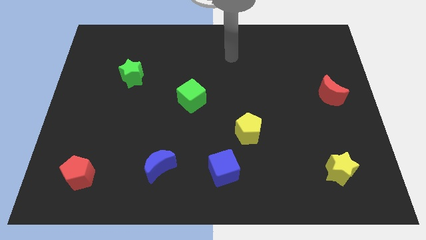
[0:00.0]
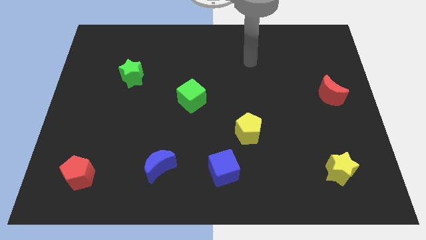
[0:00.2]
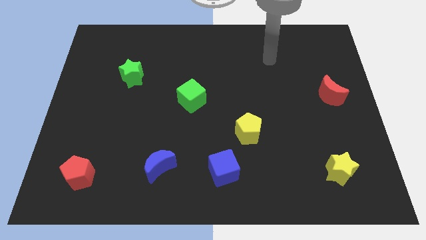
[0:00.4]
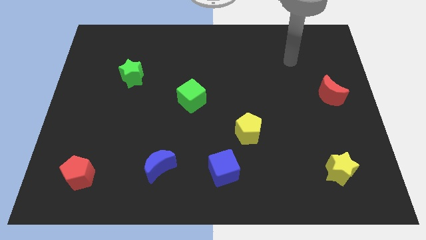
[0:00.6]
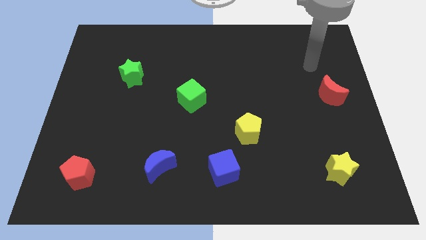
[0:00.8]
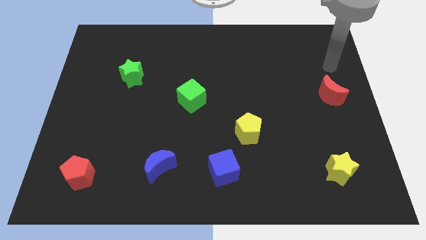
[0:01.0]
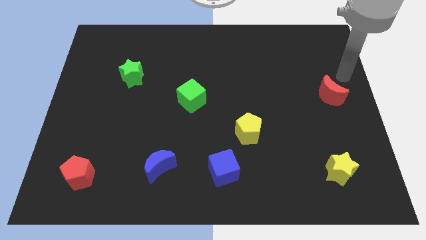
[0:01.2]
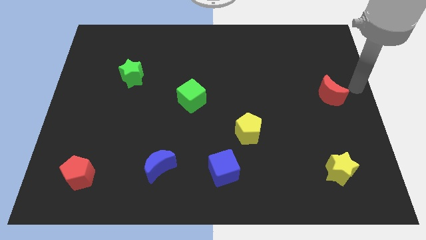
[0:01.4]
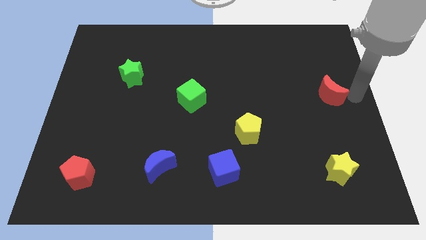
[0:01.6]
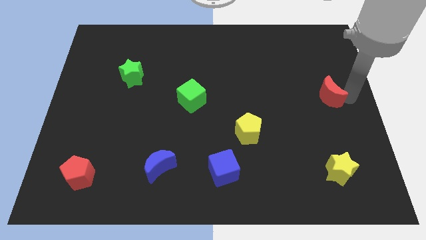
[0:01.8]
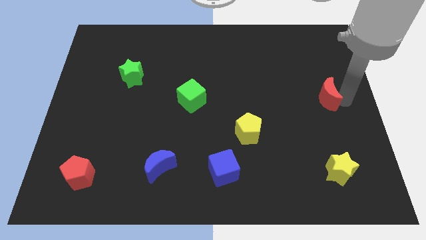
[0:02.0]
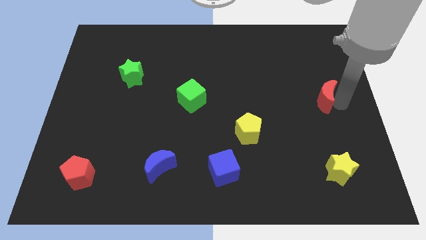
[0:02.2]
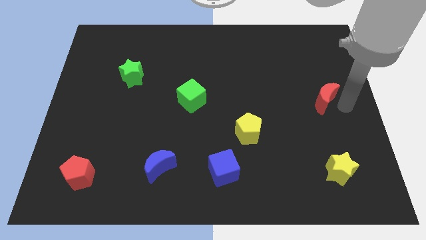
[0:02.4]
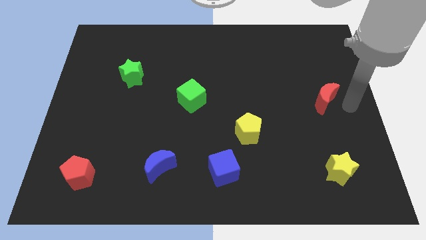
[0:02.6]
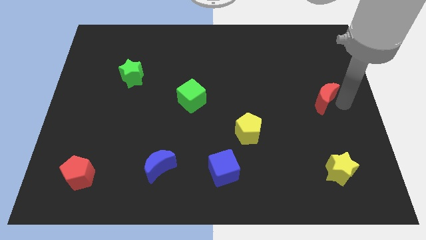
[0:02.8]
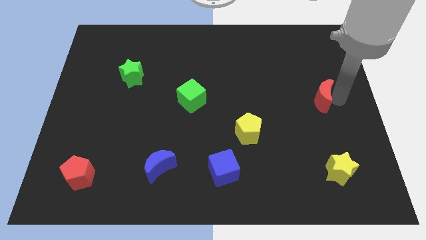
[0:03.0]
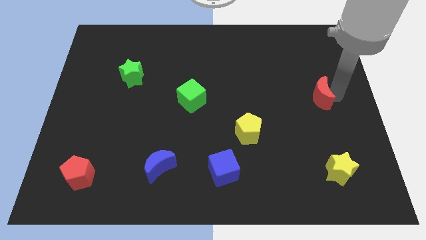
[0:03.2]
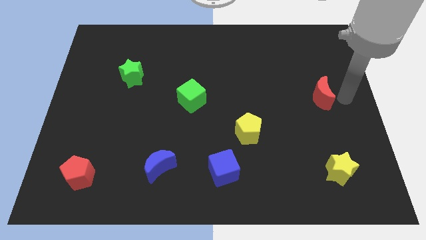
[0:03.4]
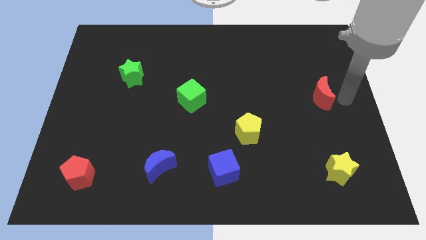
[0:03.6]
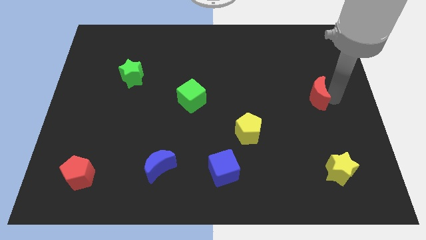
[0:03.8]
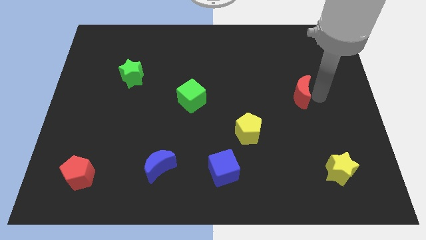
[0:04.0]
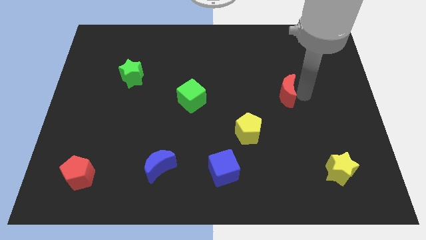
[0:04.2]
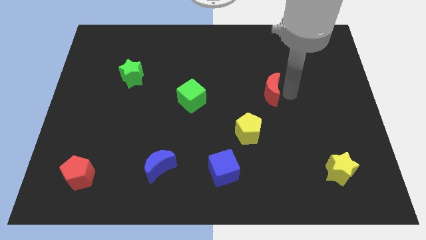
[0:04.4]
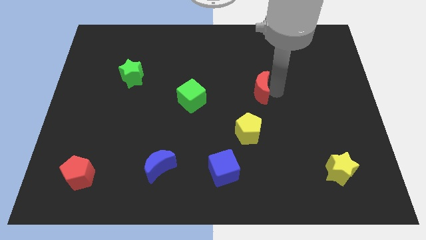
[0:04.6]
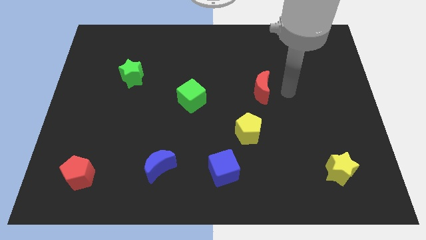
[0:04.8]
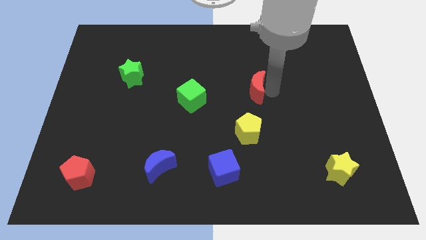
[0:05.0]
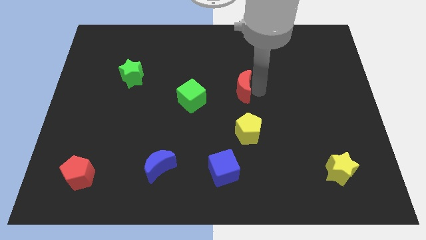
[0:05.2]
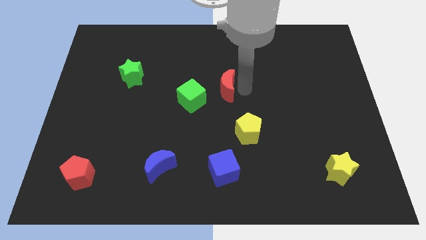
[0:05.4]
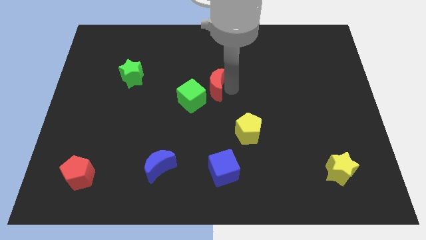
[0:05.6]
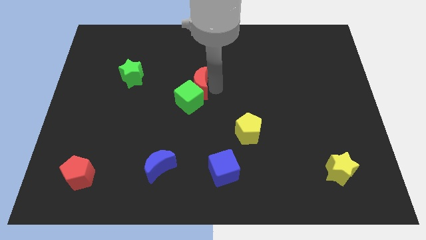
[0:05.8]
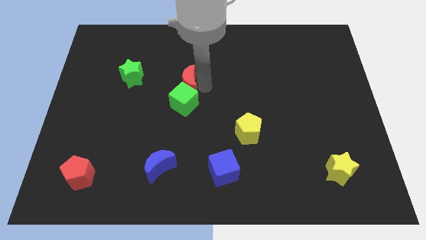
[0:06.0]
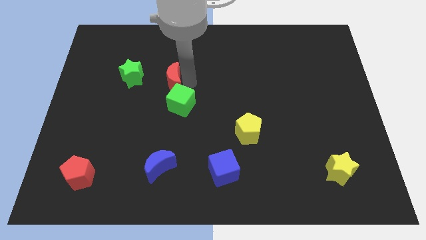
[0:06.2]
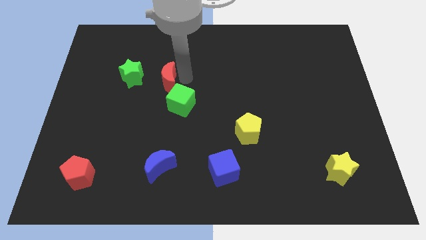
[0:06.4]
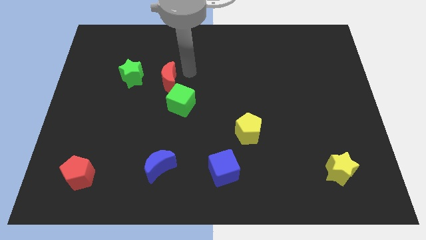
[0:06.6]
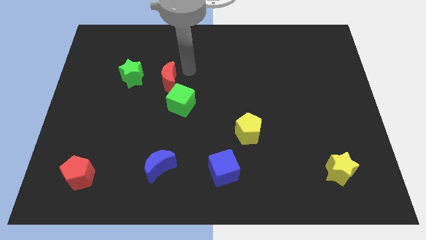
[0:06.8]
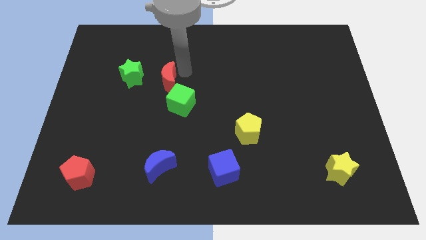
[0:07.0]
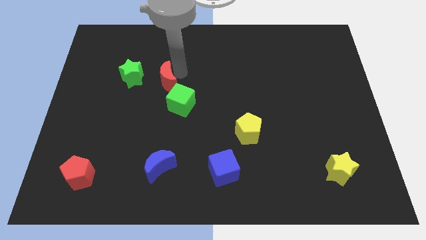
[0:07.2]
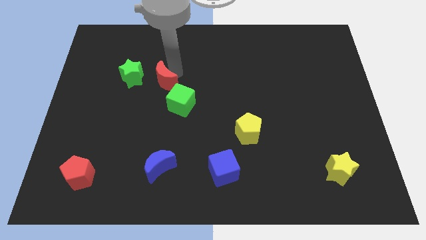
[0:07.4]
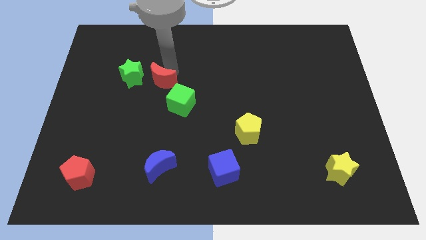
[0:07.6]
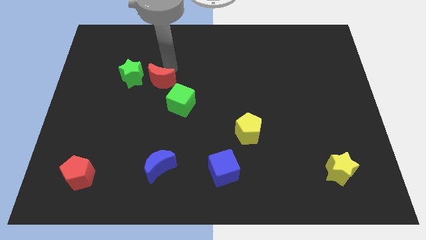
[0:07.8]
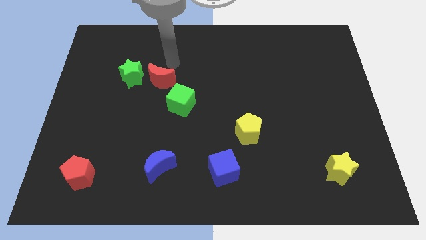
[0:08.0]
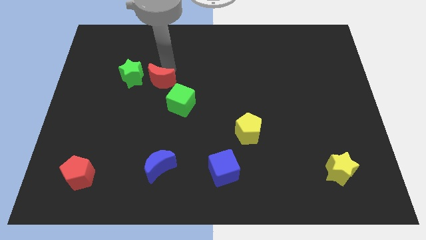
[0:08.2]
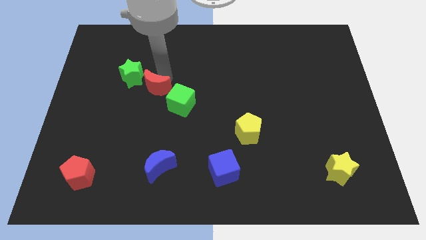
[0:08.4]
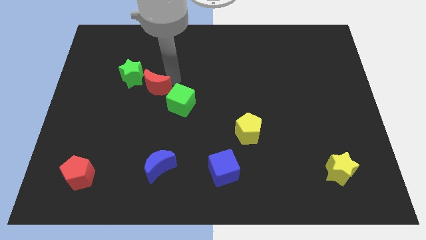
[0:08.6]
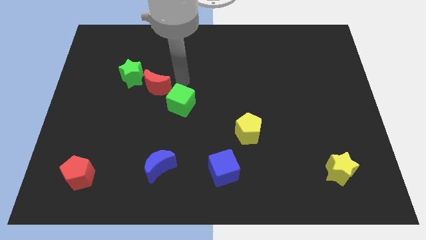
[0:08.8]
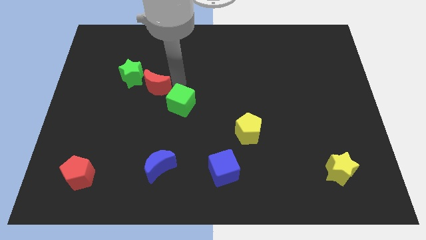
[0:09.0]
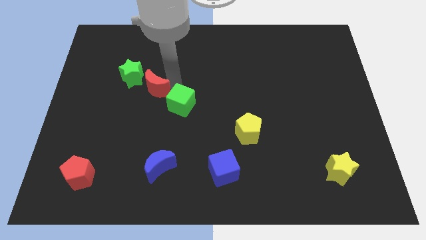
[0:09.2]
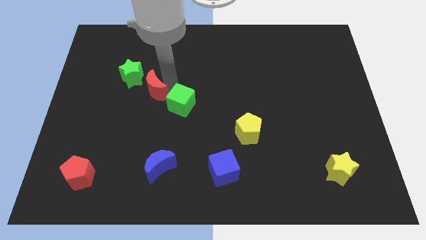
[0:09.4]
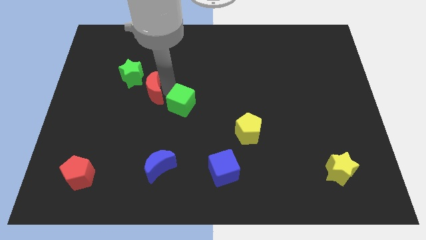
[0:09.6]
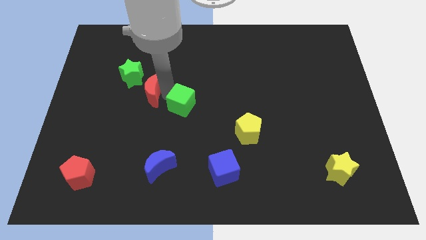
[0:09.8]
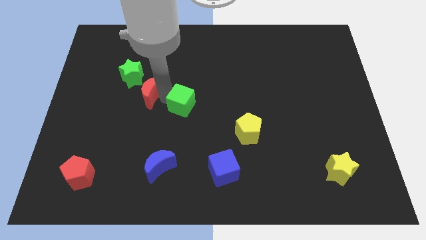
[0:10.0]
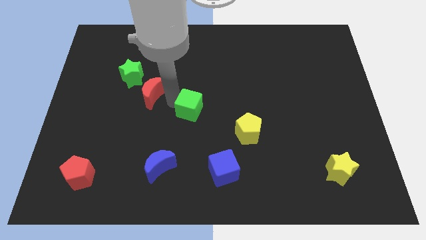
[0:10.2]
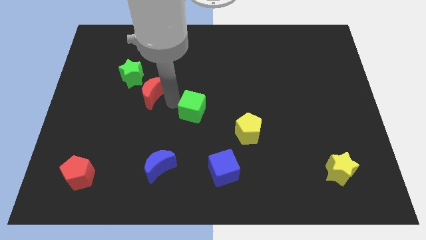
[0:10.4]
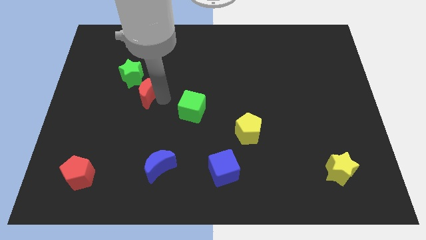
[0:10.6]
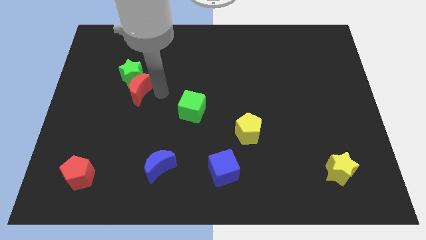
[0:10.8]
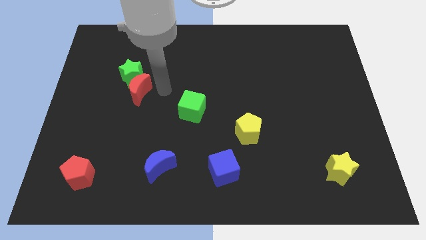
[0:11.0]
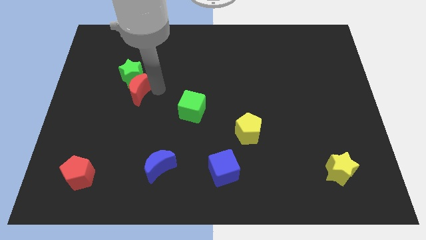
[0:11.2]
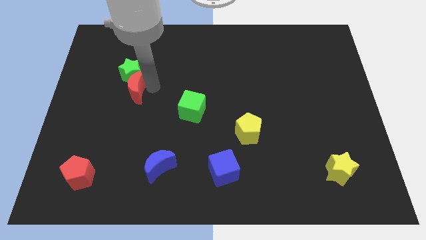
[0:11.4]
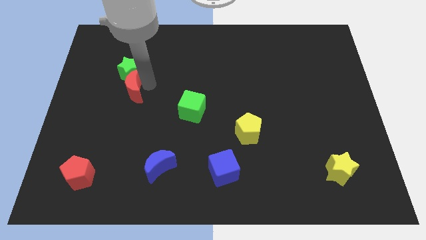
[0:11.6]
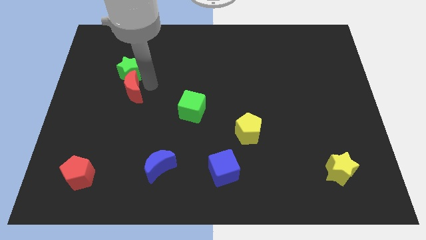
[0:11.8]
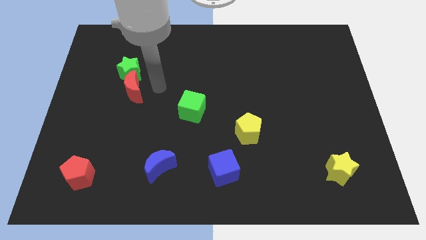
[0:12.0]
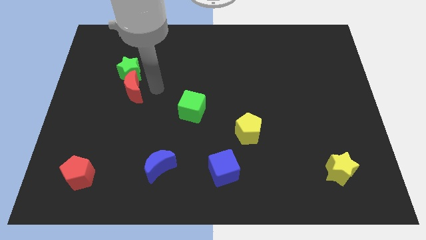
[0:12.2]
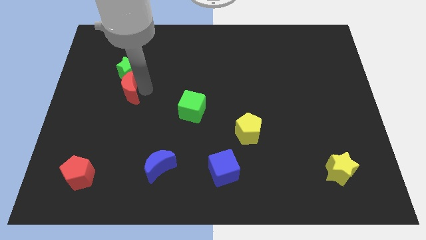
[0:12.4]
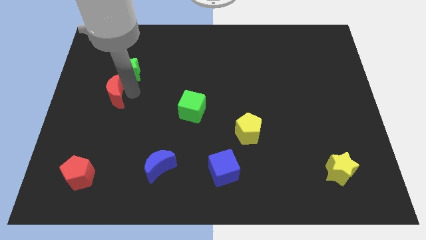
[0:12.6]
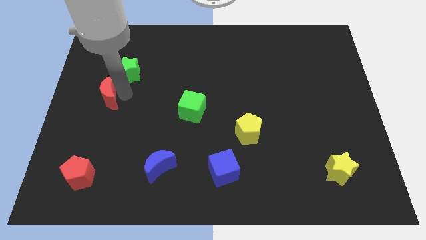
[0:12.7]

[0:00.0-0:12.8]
slide the red moon to the left side
